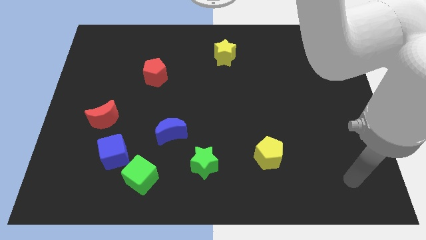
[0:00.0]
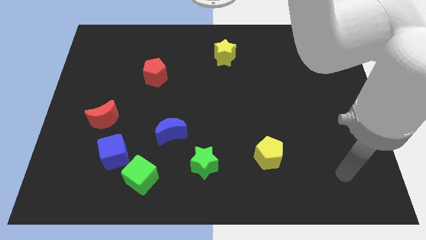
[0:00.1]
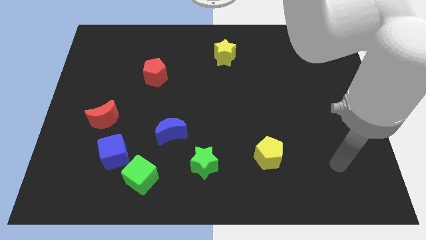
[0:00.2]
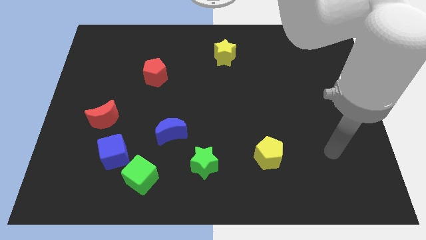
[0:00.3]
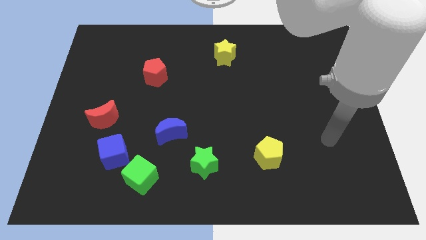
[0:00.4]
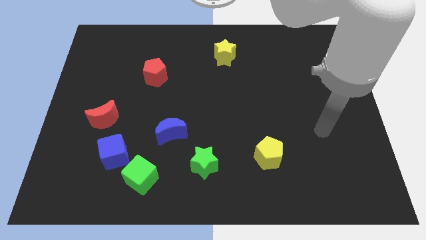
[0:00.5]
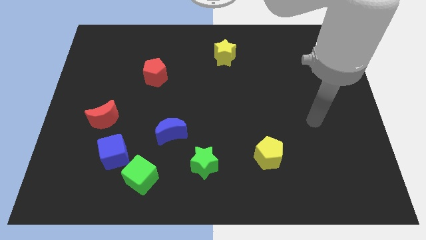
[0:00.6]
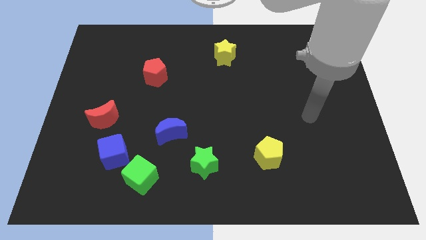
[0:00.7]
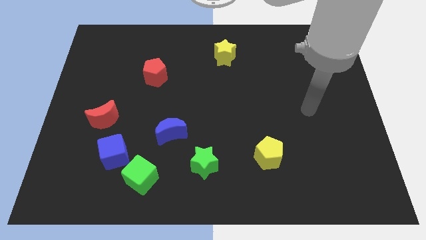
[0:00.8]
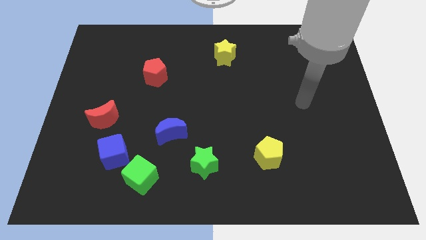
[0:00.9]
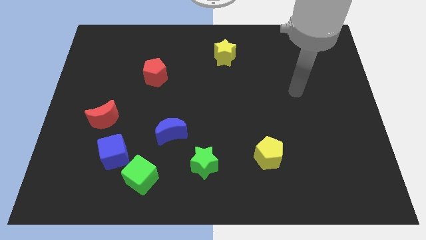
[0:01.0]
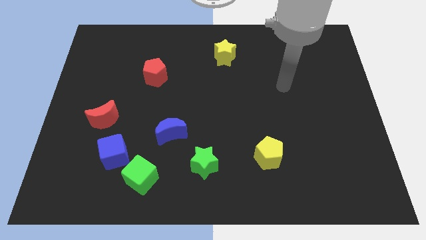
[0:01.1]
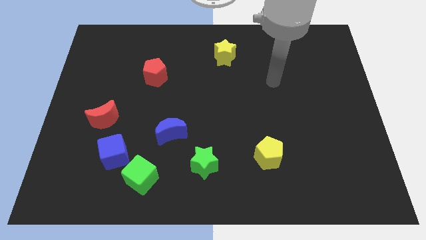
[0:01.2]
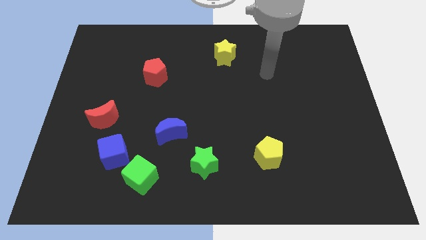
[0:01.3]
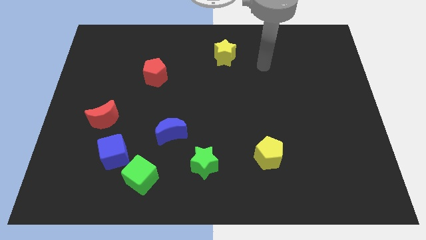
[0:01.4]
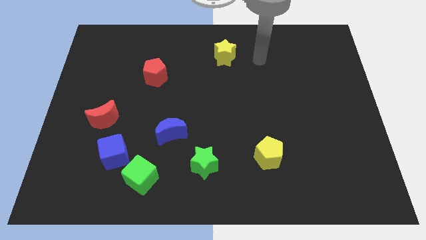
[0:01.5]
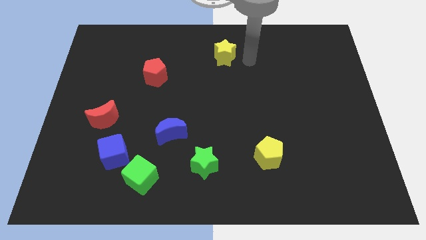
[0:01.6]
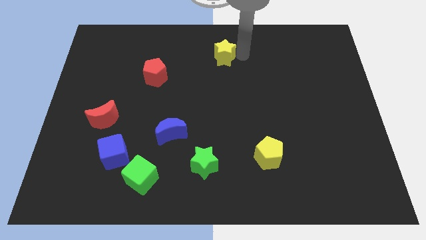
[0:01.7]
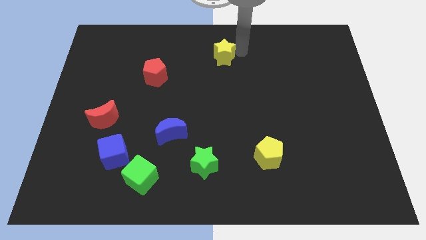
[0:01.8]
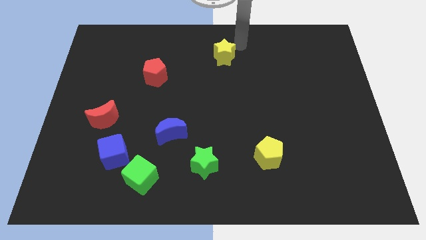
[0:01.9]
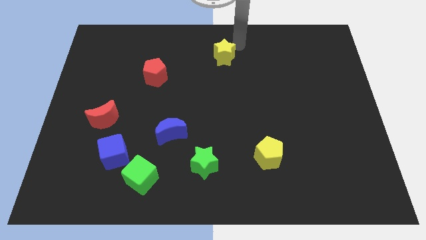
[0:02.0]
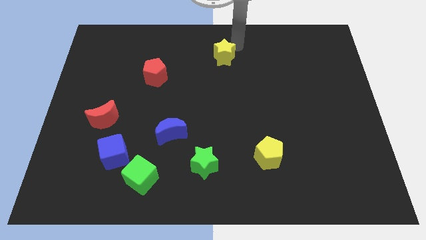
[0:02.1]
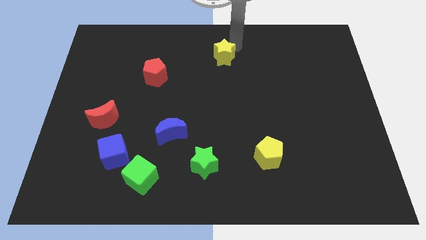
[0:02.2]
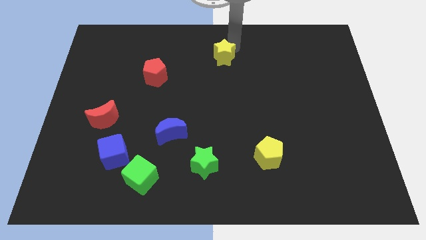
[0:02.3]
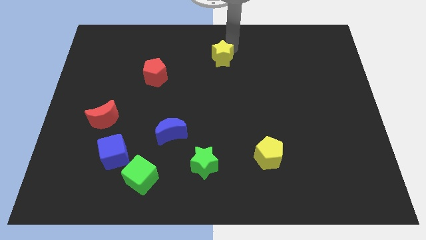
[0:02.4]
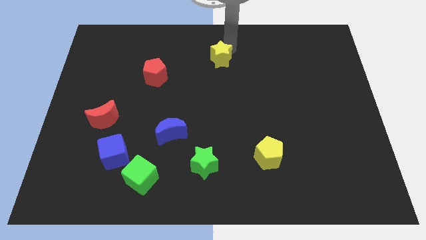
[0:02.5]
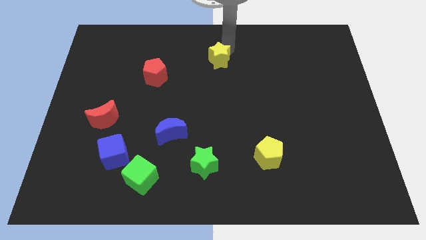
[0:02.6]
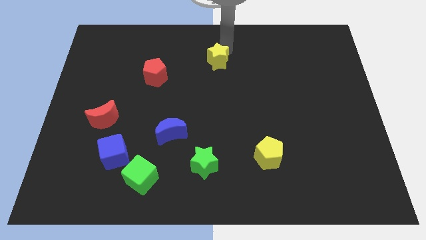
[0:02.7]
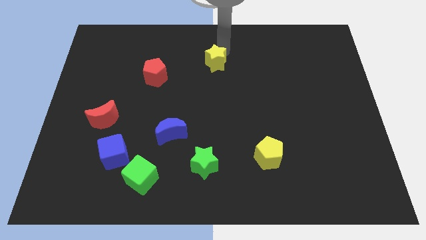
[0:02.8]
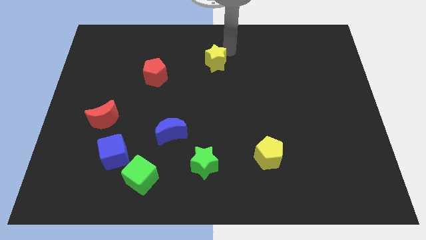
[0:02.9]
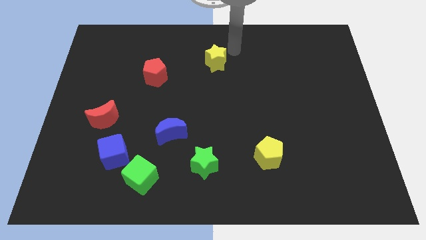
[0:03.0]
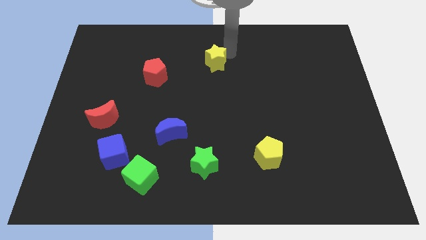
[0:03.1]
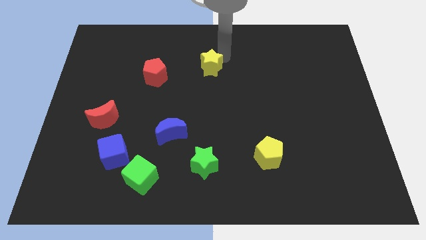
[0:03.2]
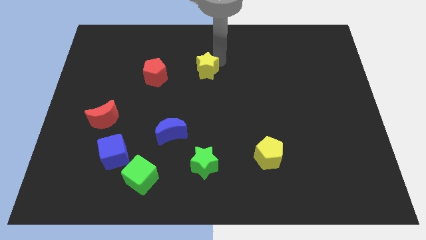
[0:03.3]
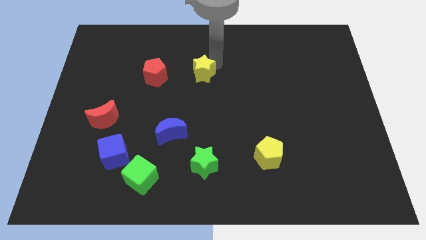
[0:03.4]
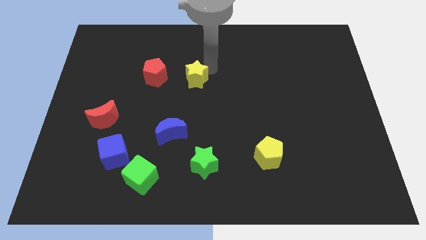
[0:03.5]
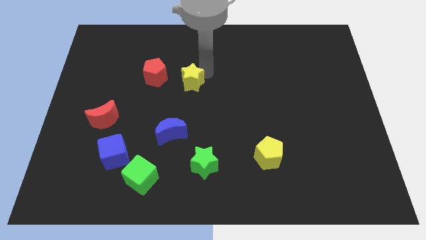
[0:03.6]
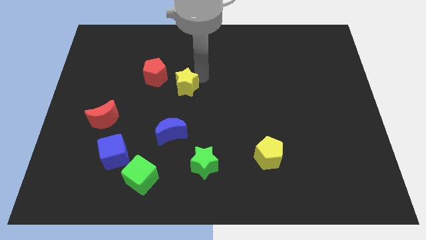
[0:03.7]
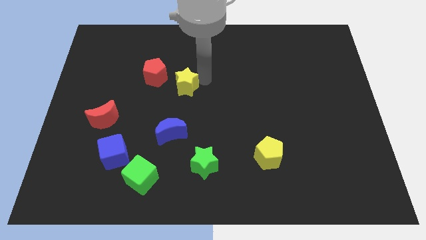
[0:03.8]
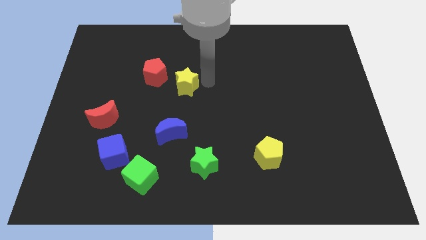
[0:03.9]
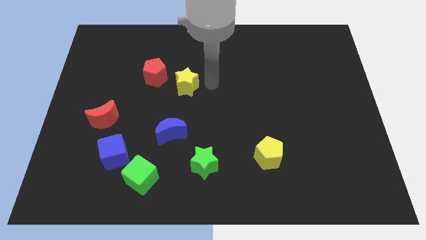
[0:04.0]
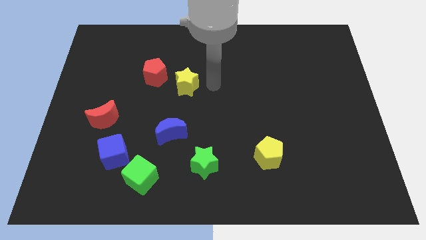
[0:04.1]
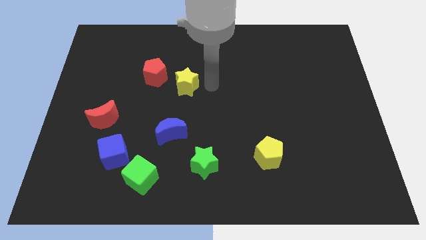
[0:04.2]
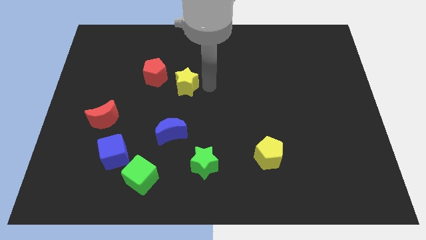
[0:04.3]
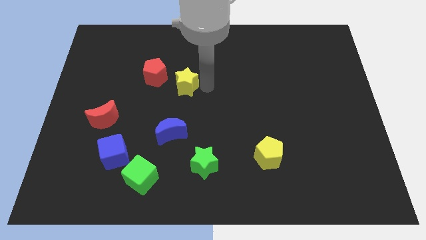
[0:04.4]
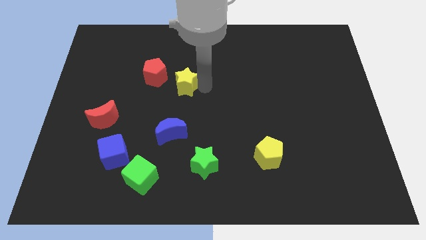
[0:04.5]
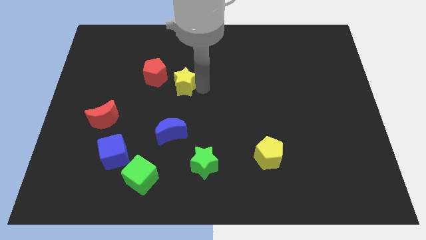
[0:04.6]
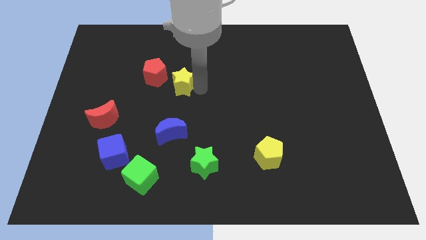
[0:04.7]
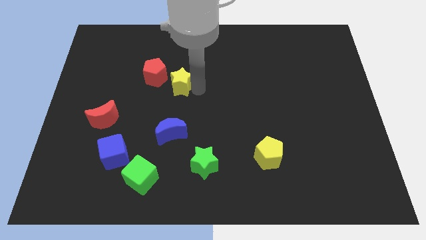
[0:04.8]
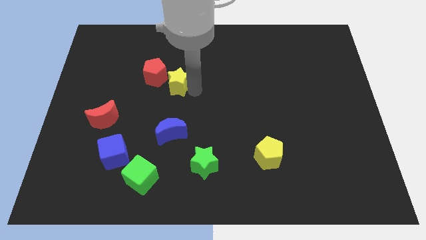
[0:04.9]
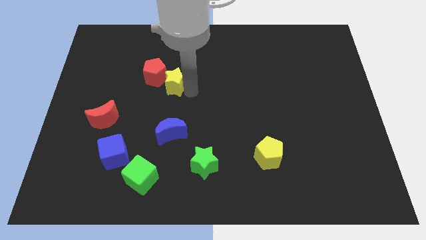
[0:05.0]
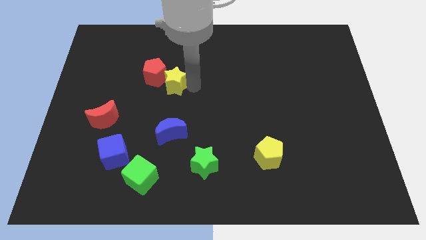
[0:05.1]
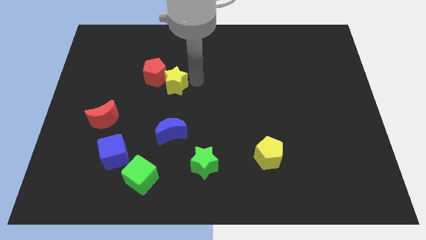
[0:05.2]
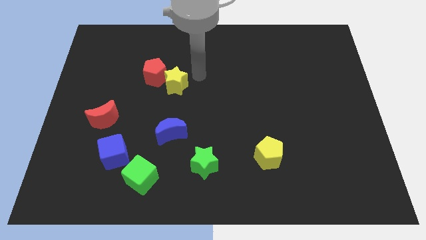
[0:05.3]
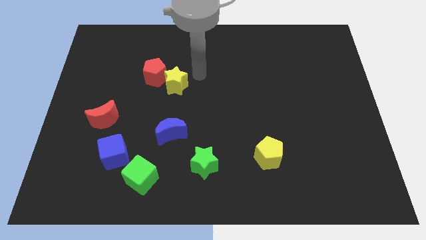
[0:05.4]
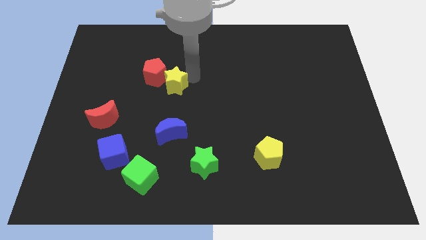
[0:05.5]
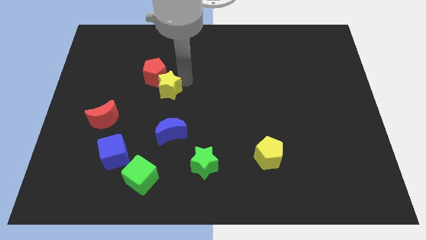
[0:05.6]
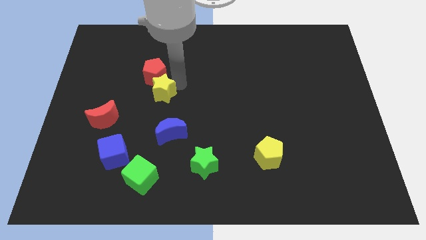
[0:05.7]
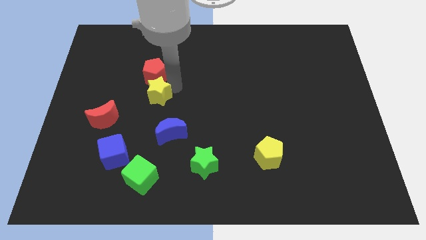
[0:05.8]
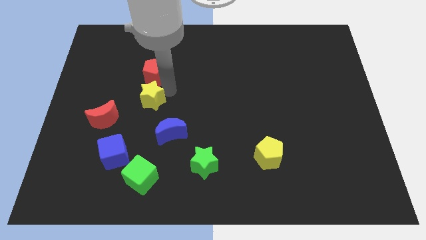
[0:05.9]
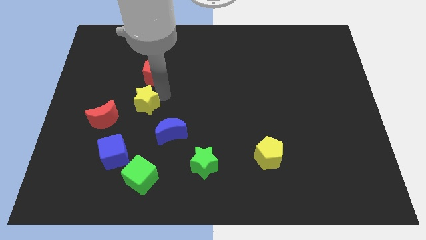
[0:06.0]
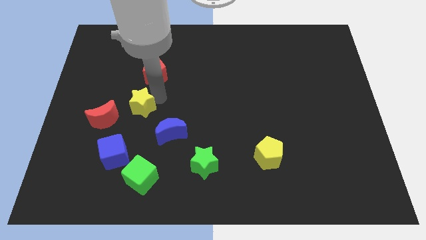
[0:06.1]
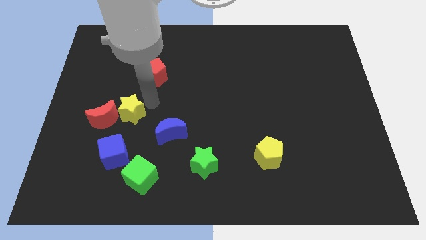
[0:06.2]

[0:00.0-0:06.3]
push the yellow star next to the red moon

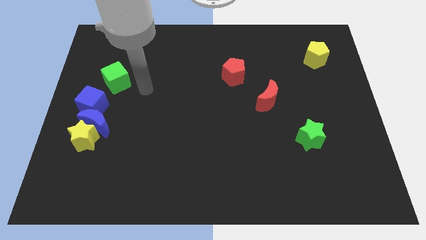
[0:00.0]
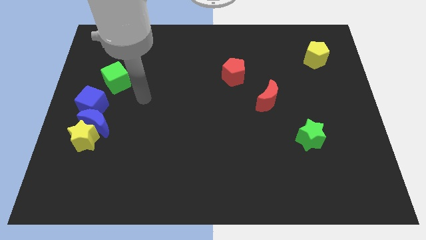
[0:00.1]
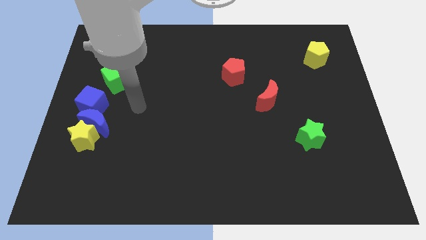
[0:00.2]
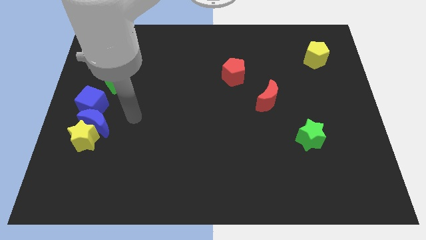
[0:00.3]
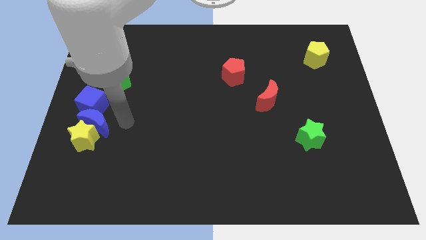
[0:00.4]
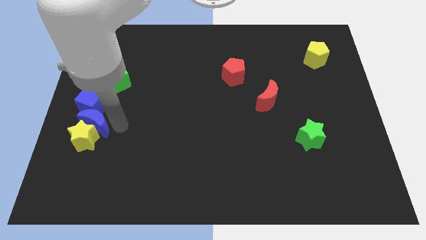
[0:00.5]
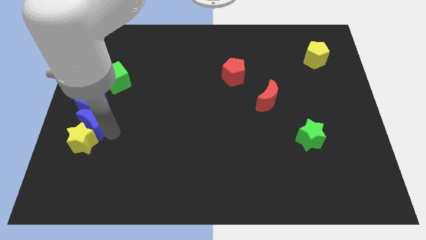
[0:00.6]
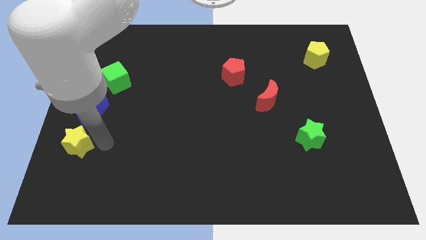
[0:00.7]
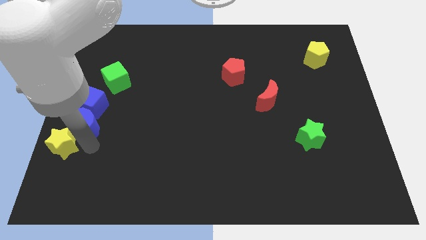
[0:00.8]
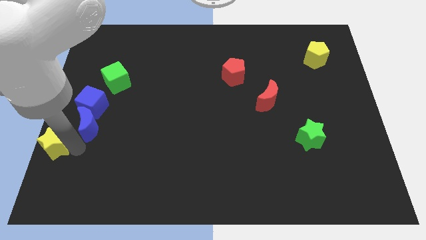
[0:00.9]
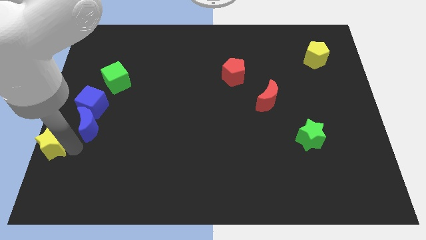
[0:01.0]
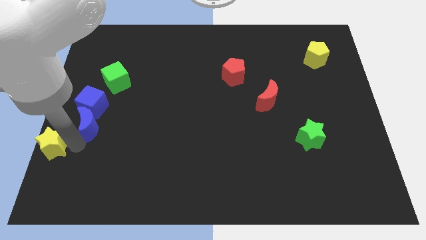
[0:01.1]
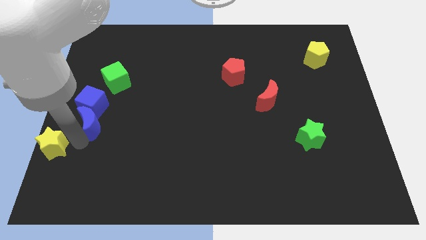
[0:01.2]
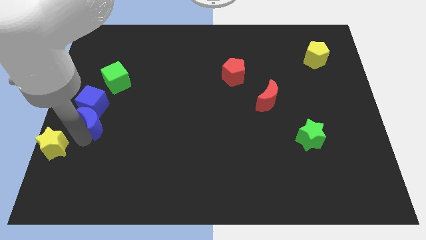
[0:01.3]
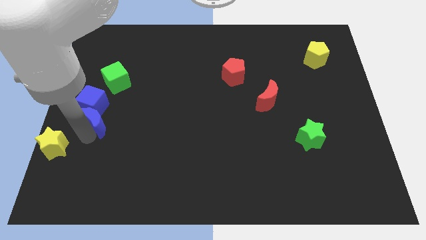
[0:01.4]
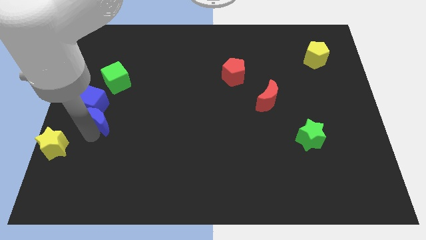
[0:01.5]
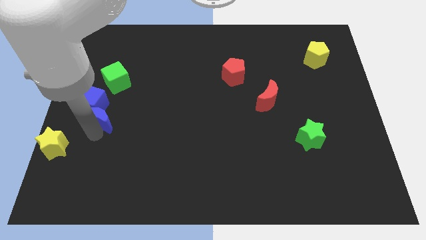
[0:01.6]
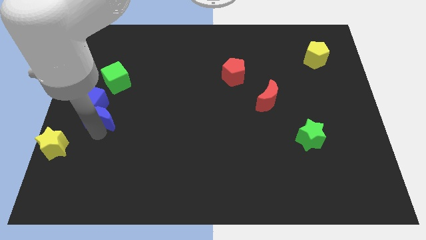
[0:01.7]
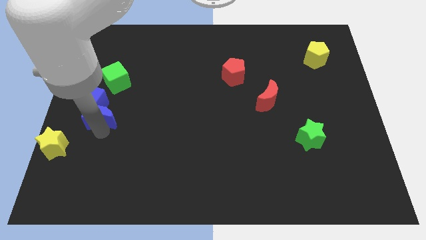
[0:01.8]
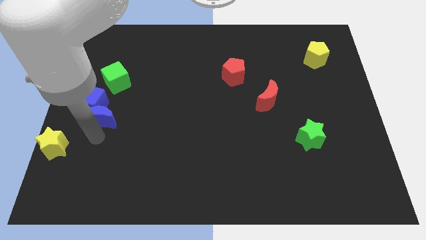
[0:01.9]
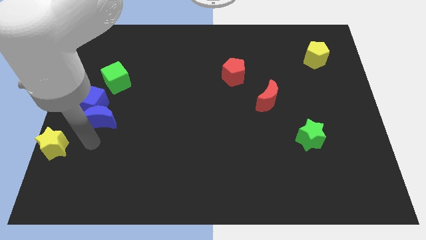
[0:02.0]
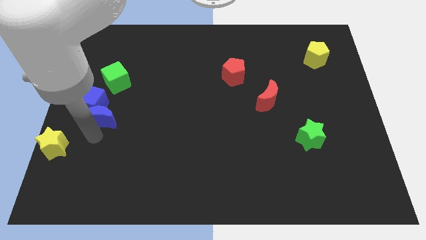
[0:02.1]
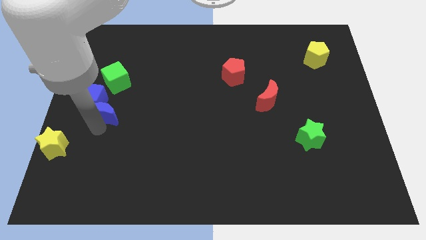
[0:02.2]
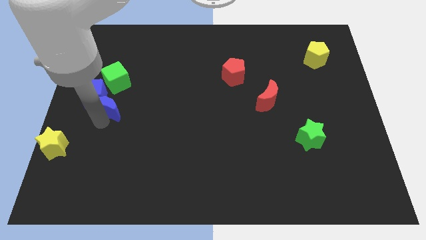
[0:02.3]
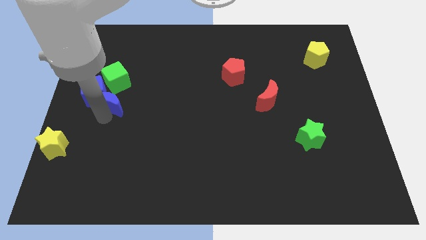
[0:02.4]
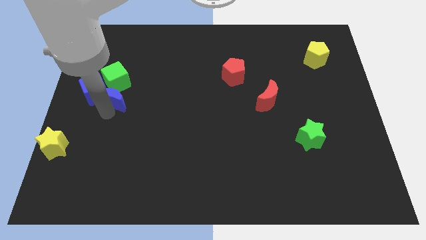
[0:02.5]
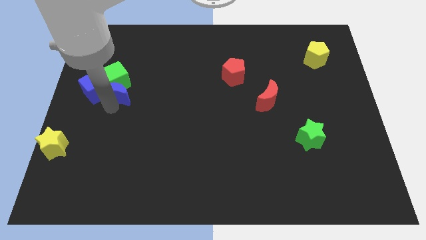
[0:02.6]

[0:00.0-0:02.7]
push the blue moon to the green cube
